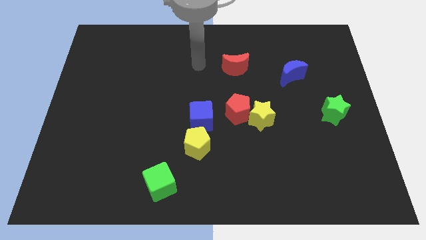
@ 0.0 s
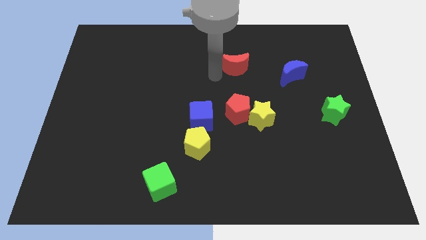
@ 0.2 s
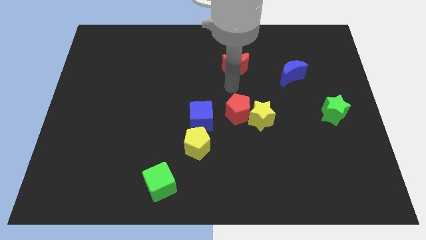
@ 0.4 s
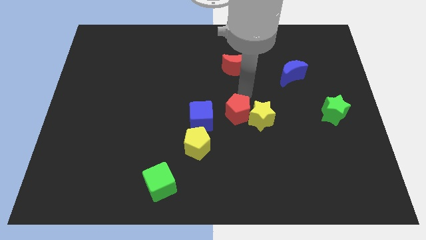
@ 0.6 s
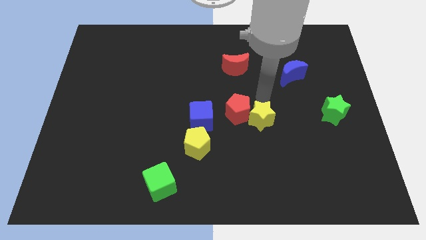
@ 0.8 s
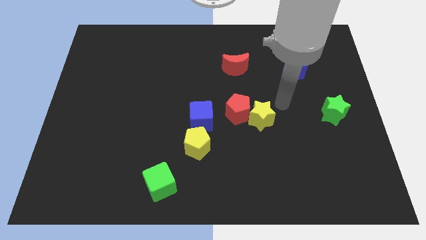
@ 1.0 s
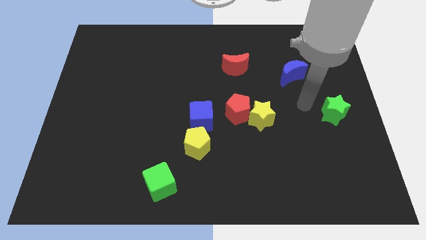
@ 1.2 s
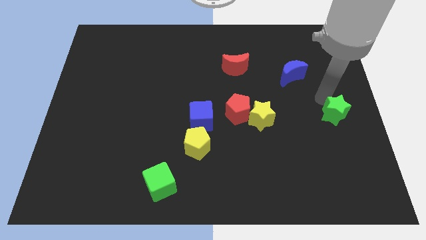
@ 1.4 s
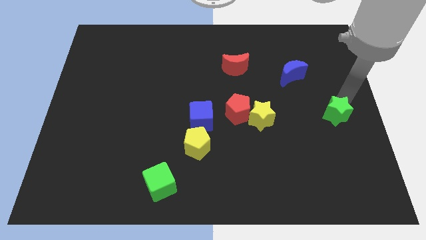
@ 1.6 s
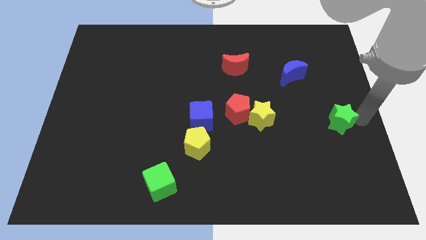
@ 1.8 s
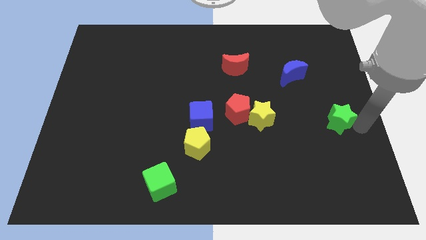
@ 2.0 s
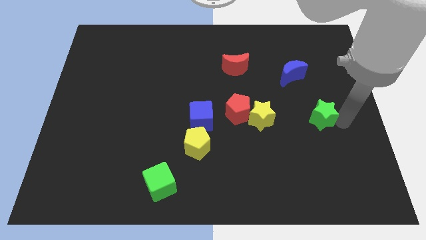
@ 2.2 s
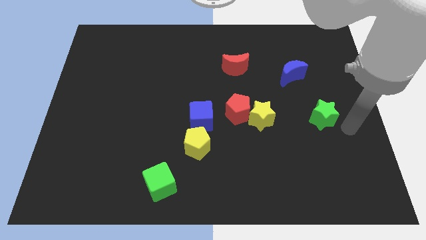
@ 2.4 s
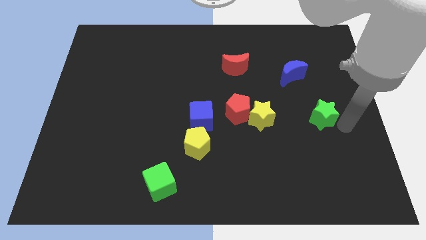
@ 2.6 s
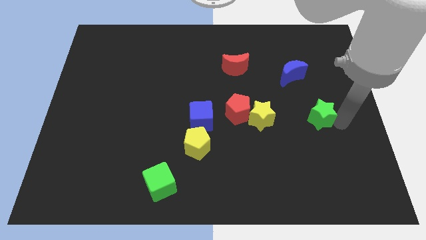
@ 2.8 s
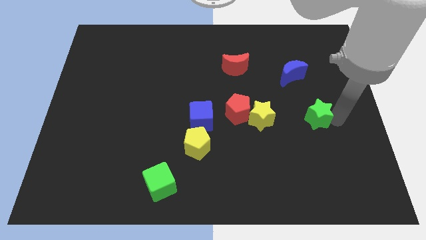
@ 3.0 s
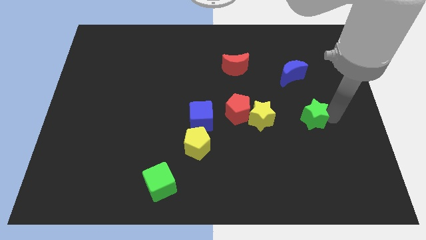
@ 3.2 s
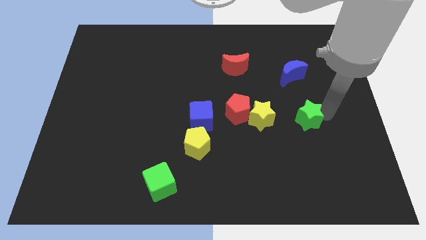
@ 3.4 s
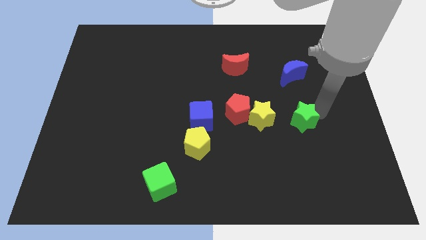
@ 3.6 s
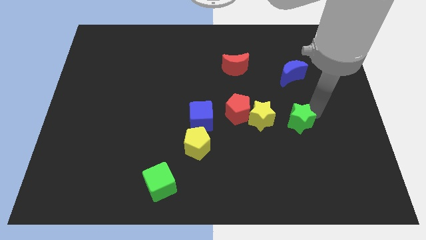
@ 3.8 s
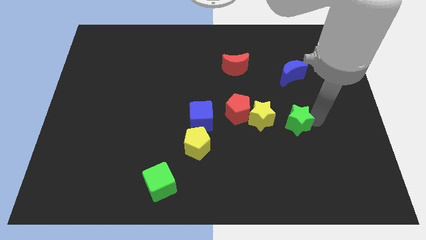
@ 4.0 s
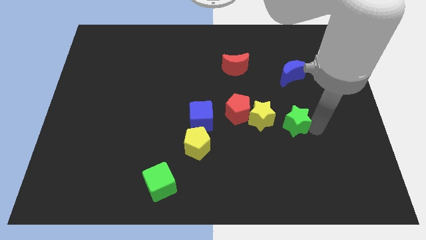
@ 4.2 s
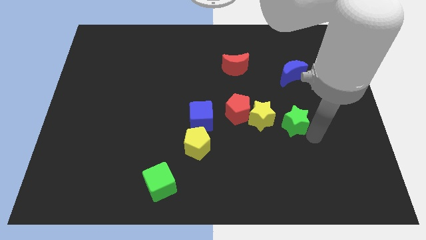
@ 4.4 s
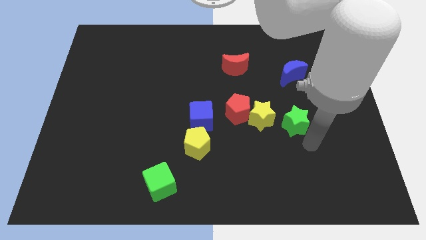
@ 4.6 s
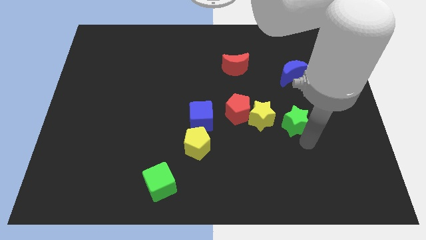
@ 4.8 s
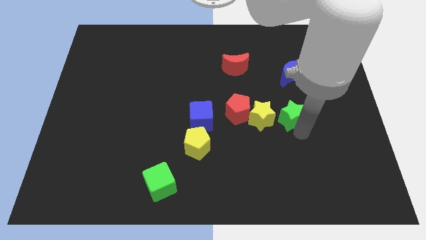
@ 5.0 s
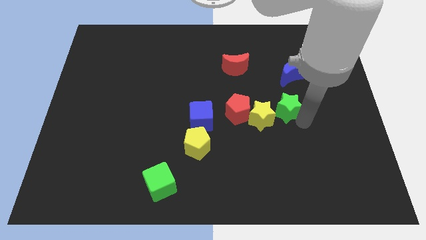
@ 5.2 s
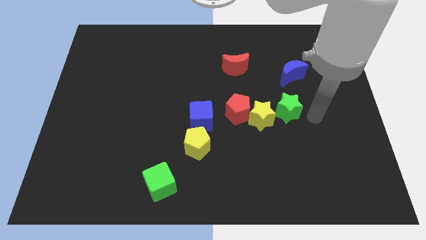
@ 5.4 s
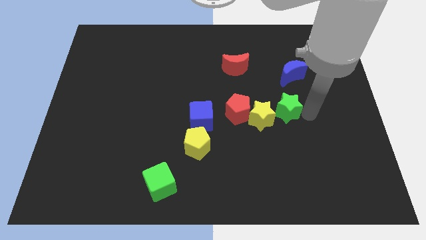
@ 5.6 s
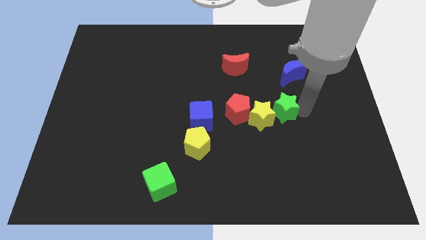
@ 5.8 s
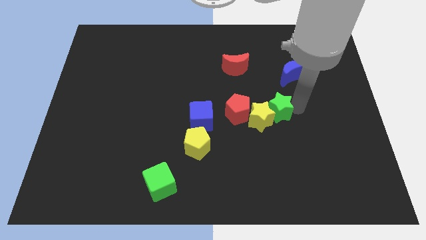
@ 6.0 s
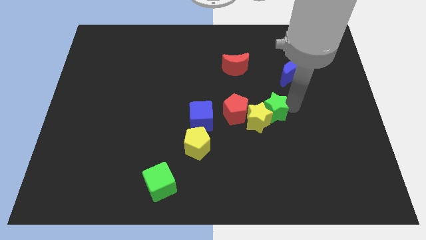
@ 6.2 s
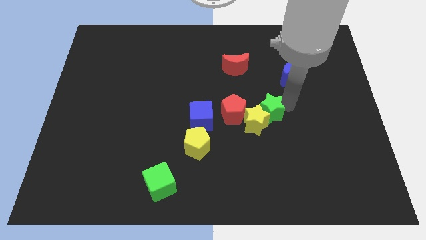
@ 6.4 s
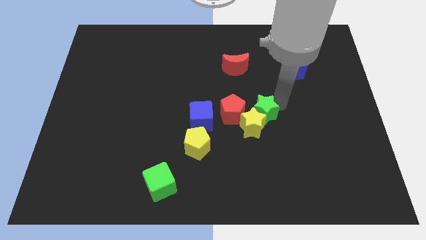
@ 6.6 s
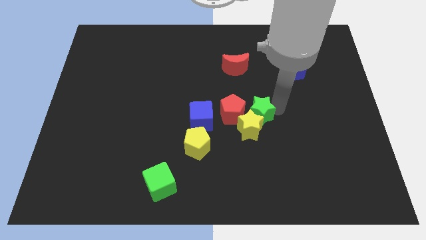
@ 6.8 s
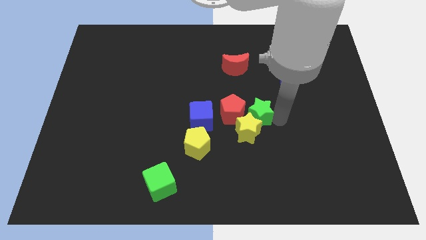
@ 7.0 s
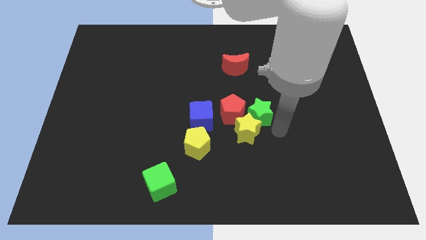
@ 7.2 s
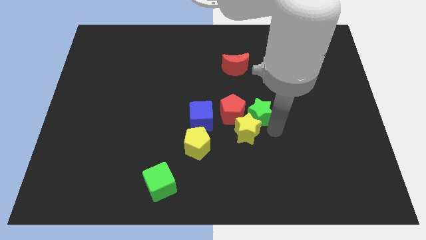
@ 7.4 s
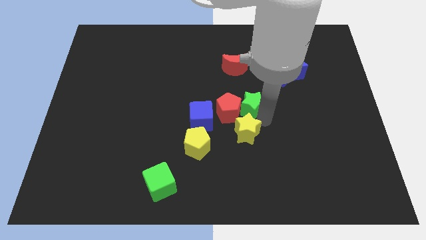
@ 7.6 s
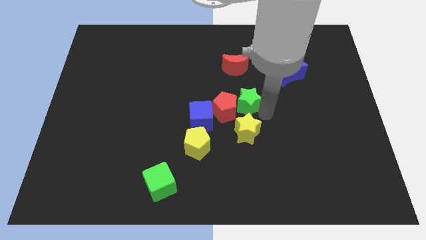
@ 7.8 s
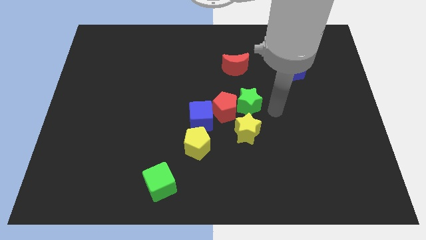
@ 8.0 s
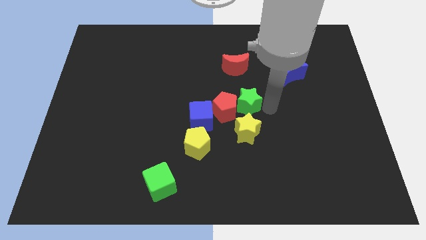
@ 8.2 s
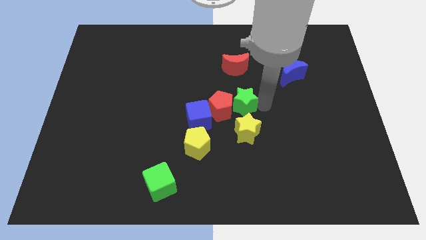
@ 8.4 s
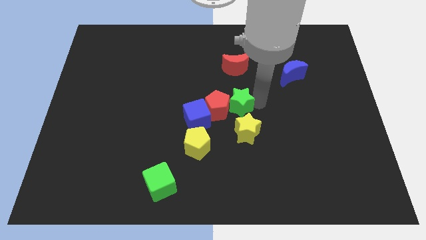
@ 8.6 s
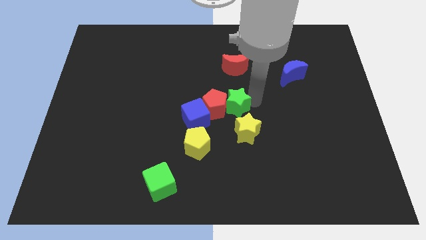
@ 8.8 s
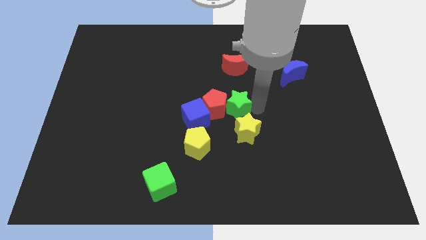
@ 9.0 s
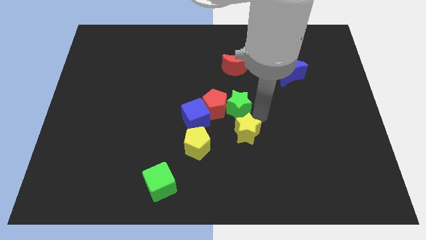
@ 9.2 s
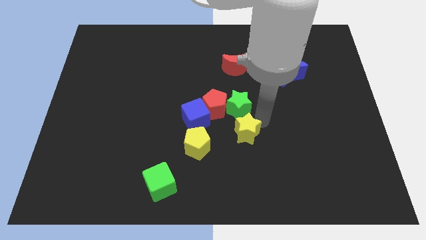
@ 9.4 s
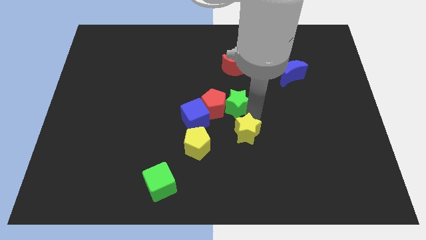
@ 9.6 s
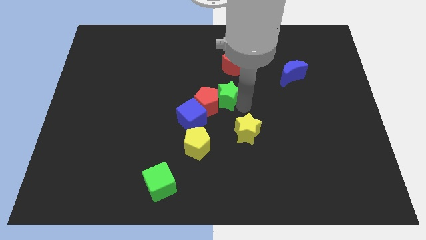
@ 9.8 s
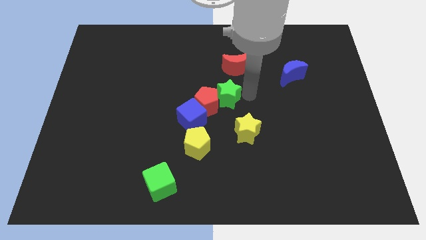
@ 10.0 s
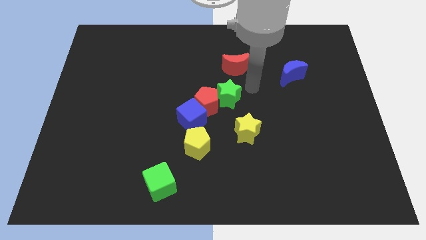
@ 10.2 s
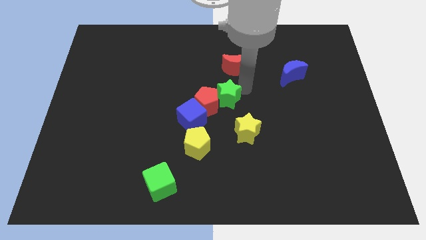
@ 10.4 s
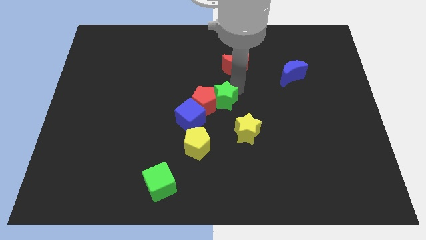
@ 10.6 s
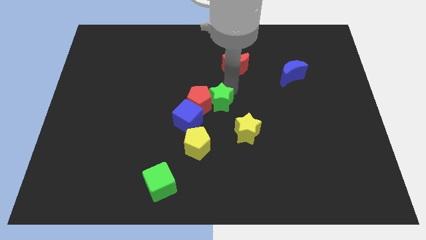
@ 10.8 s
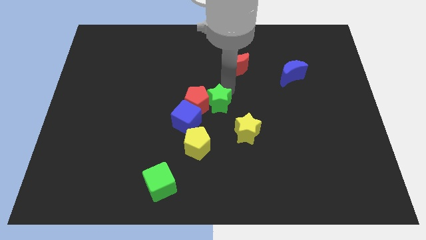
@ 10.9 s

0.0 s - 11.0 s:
move the green star above the yellow pentagon

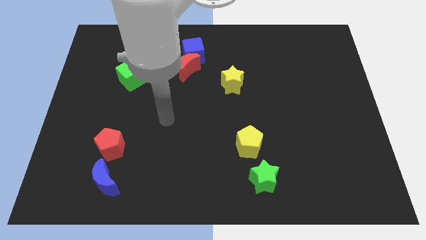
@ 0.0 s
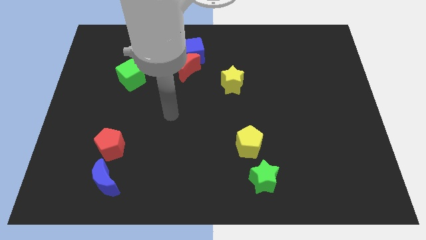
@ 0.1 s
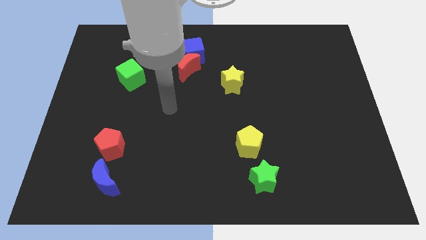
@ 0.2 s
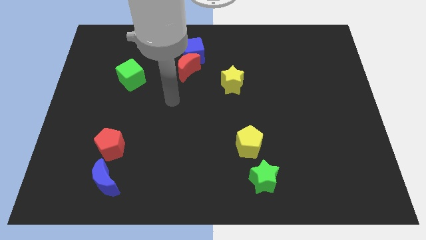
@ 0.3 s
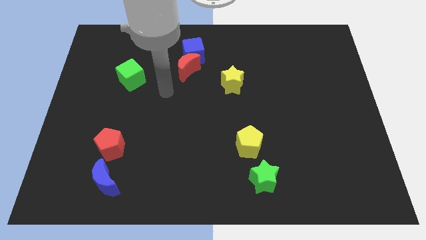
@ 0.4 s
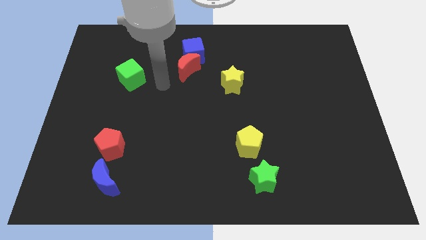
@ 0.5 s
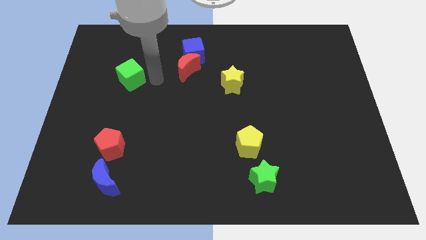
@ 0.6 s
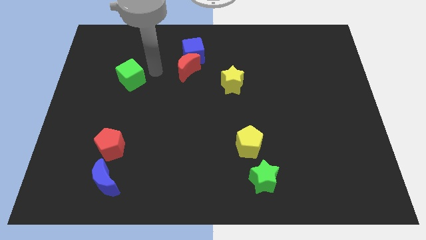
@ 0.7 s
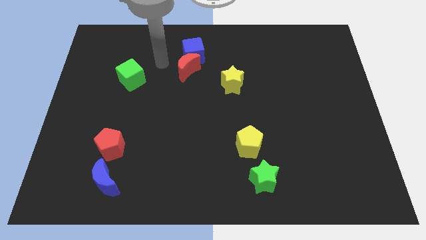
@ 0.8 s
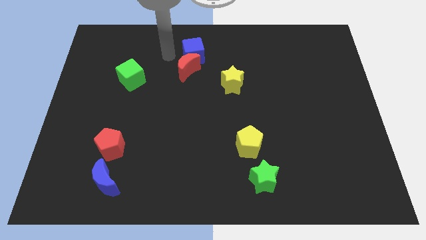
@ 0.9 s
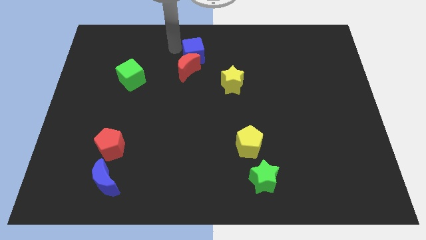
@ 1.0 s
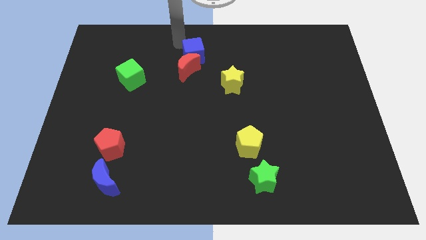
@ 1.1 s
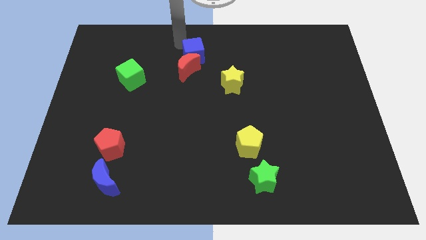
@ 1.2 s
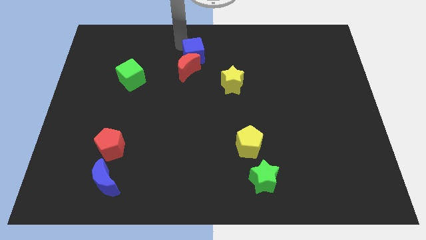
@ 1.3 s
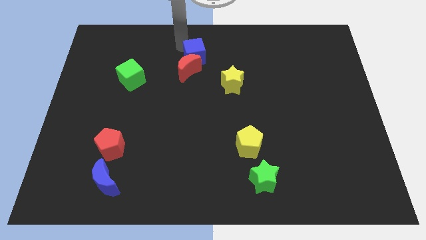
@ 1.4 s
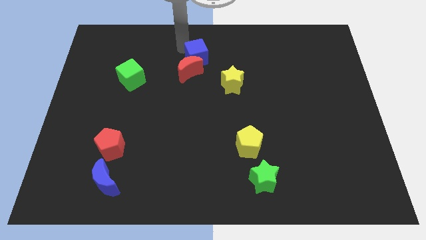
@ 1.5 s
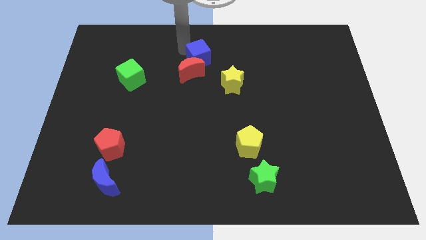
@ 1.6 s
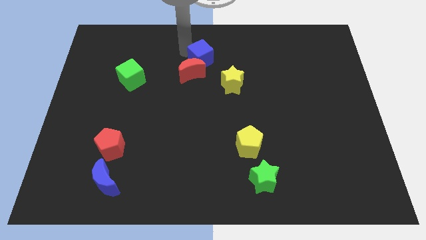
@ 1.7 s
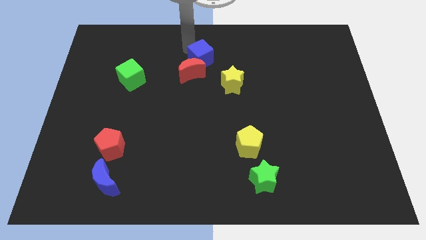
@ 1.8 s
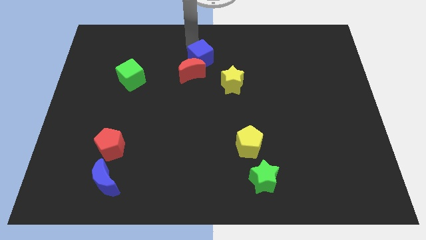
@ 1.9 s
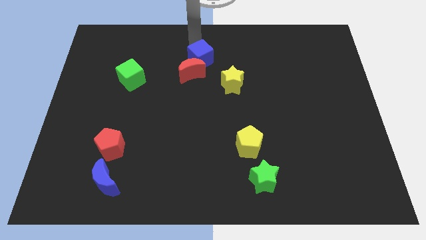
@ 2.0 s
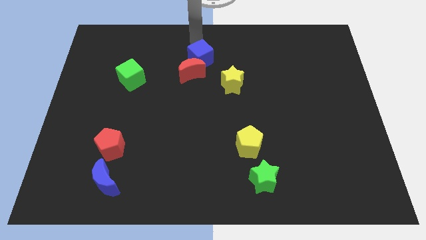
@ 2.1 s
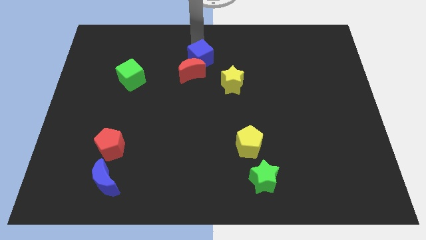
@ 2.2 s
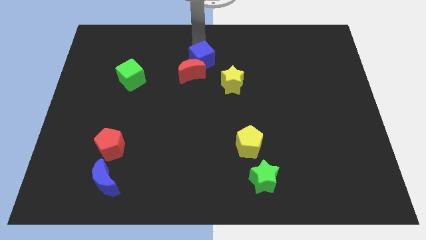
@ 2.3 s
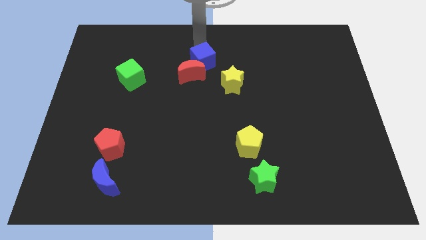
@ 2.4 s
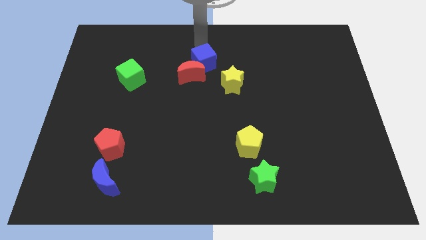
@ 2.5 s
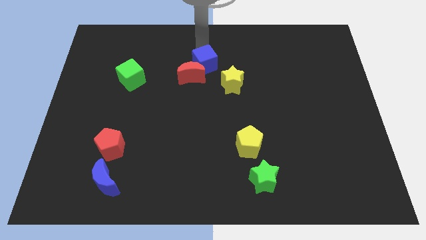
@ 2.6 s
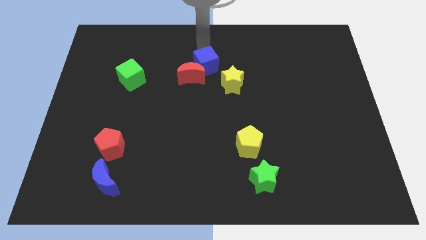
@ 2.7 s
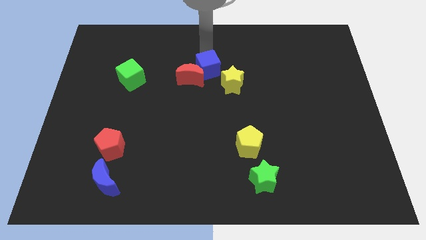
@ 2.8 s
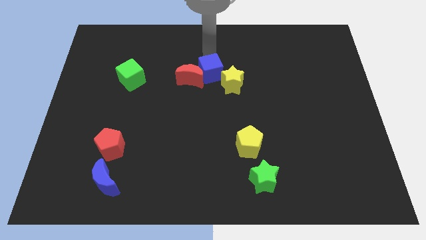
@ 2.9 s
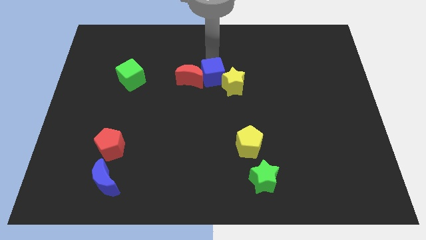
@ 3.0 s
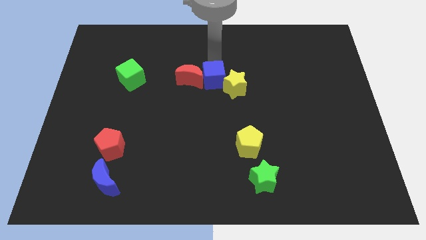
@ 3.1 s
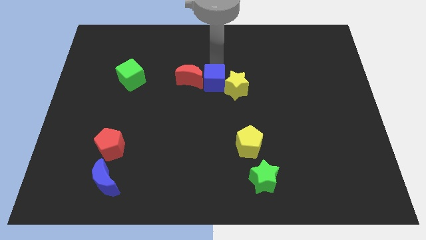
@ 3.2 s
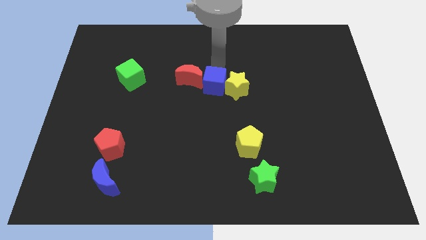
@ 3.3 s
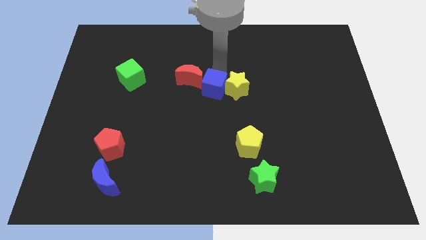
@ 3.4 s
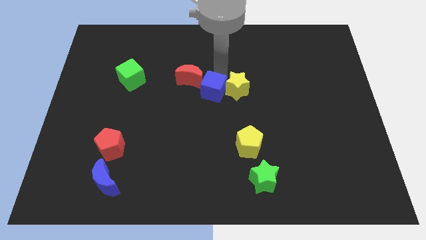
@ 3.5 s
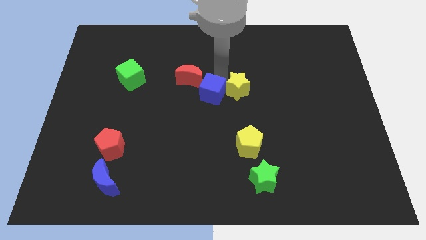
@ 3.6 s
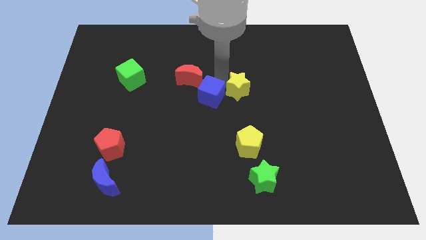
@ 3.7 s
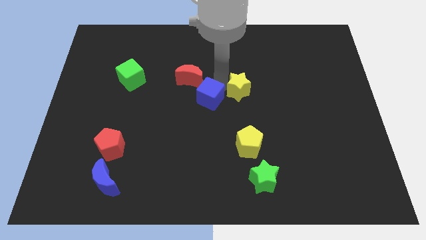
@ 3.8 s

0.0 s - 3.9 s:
move the blue cube below the red moon
